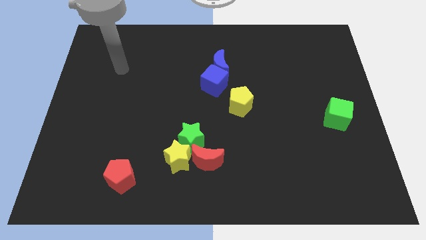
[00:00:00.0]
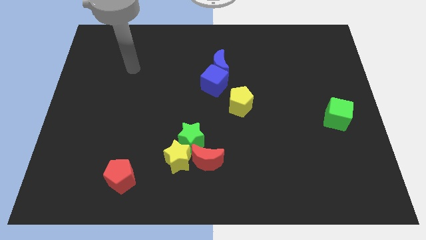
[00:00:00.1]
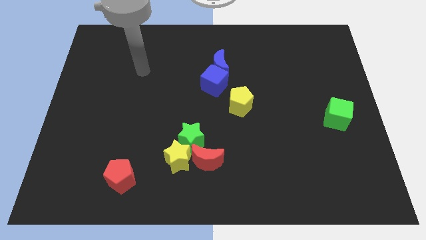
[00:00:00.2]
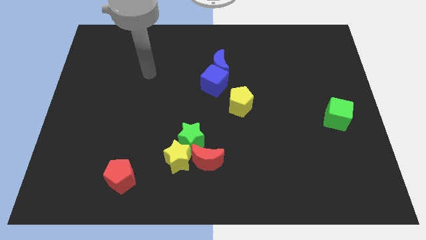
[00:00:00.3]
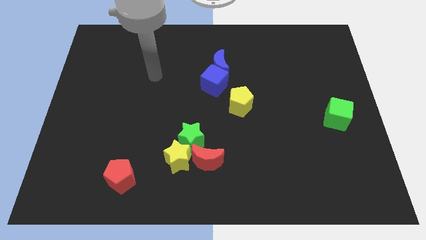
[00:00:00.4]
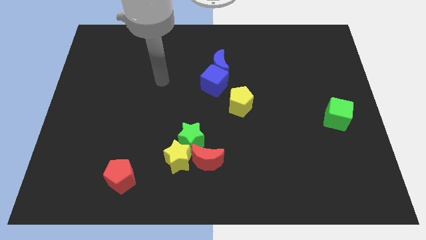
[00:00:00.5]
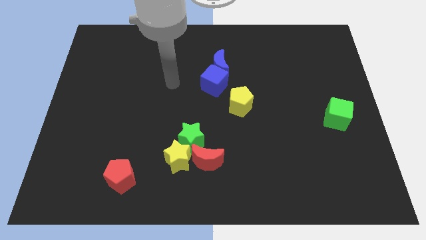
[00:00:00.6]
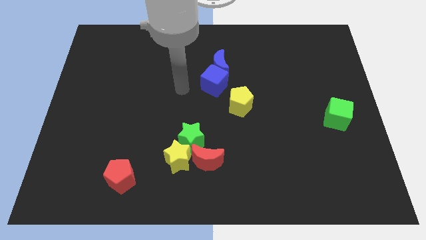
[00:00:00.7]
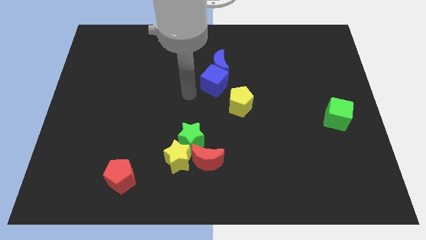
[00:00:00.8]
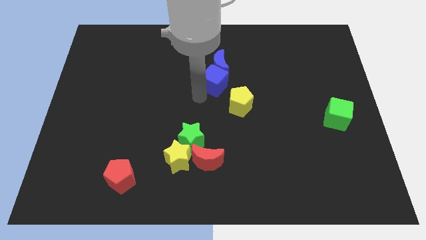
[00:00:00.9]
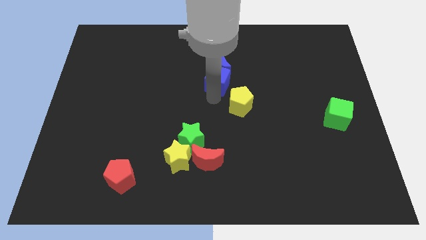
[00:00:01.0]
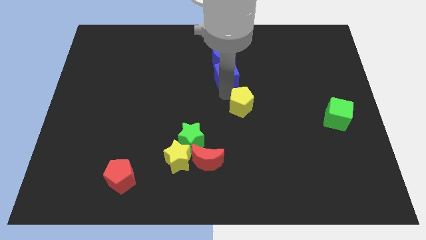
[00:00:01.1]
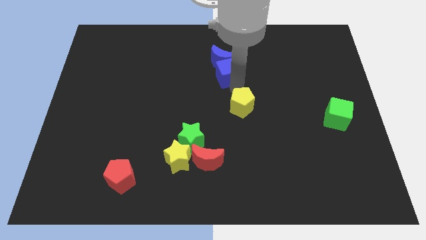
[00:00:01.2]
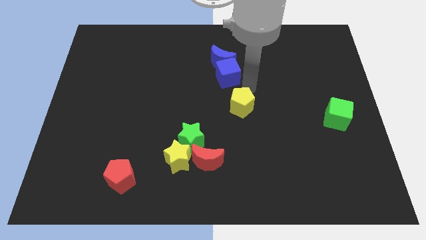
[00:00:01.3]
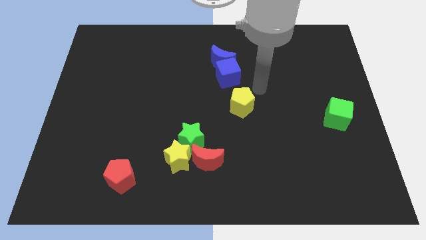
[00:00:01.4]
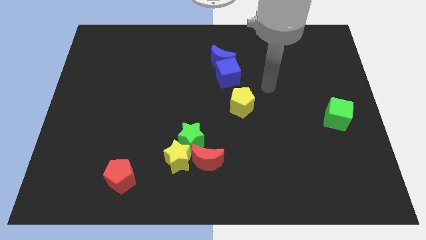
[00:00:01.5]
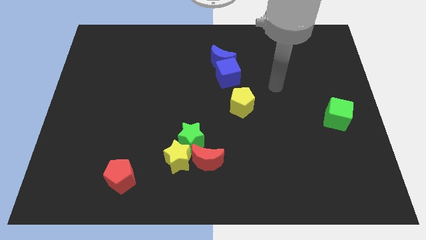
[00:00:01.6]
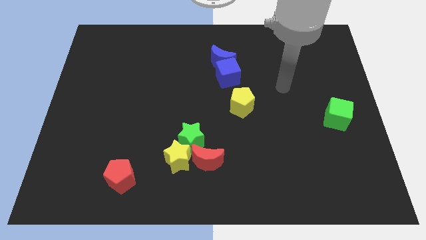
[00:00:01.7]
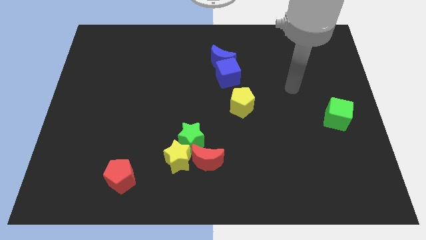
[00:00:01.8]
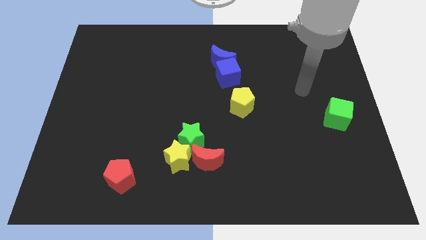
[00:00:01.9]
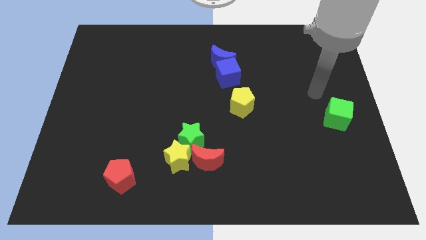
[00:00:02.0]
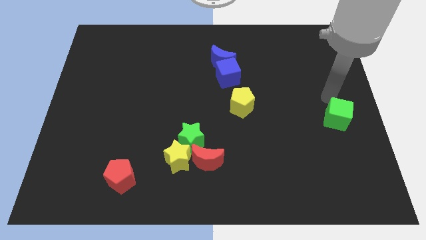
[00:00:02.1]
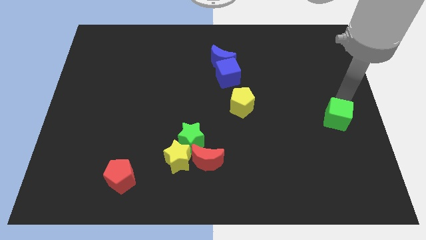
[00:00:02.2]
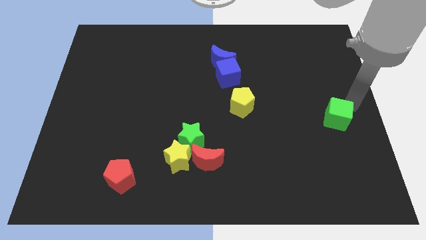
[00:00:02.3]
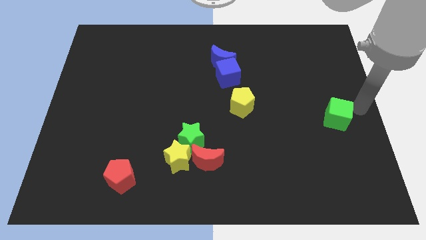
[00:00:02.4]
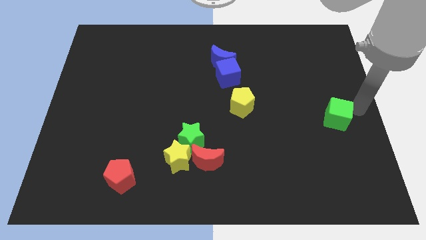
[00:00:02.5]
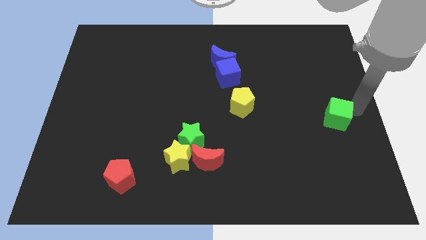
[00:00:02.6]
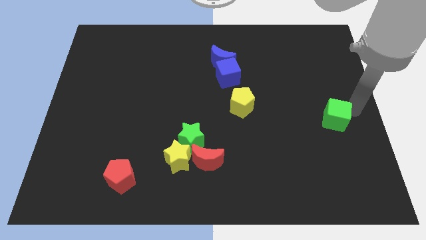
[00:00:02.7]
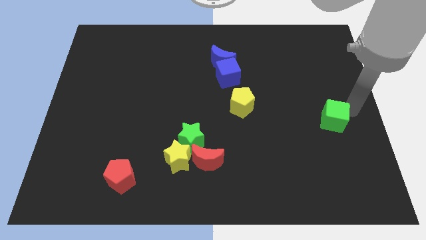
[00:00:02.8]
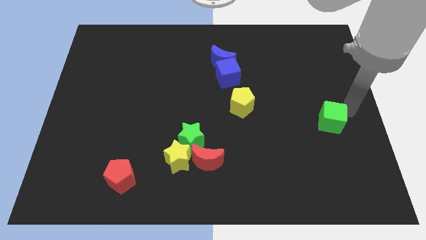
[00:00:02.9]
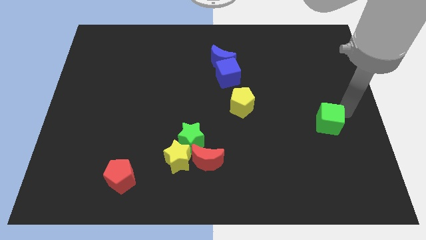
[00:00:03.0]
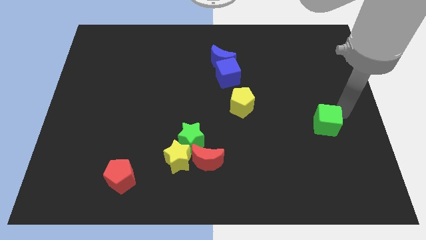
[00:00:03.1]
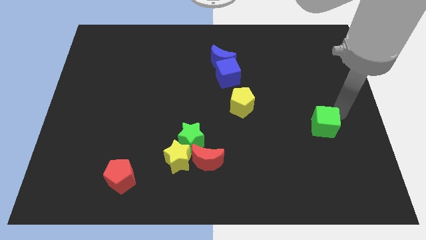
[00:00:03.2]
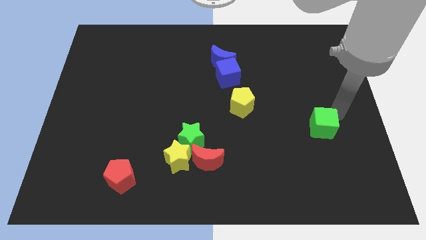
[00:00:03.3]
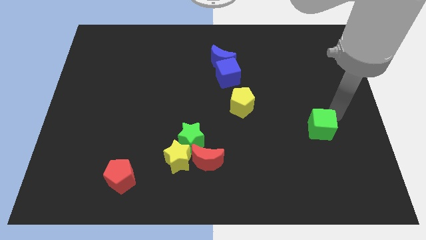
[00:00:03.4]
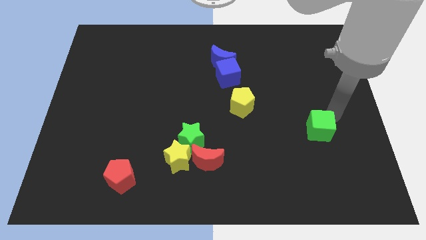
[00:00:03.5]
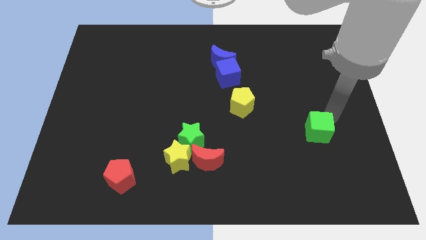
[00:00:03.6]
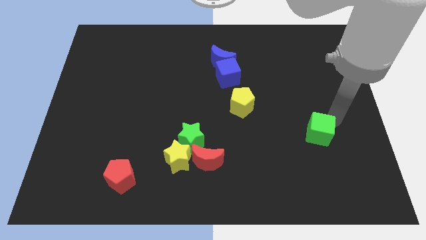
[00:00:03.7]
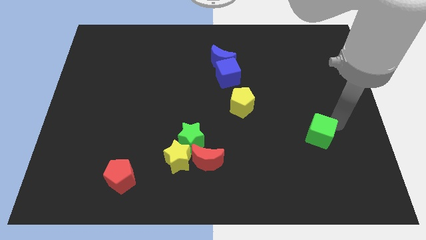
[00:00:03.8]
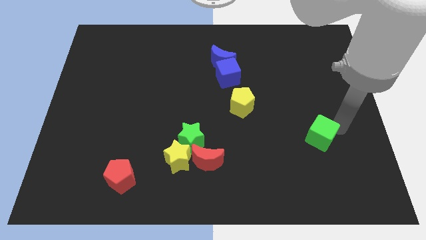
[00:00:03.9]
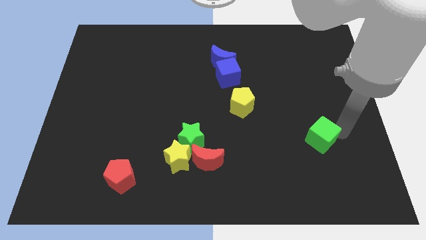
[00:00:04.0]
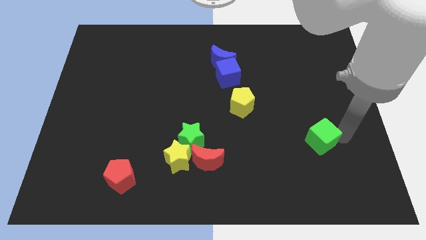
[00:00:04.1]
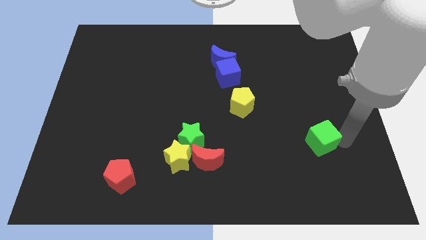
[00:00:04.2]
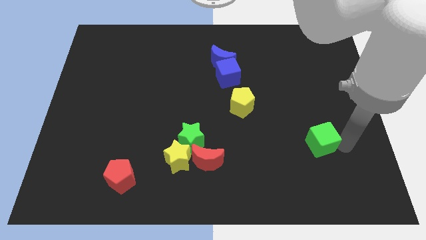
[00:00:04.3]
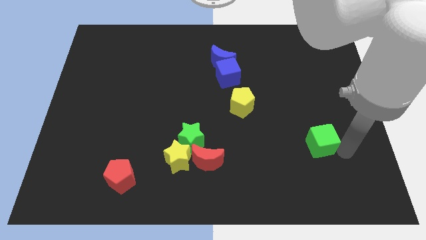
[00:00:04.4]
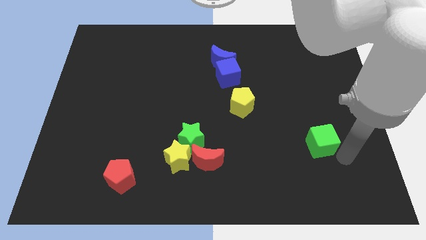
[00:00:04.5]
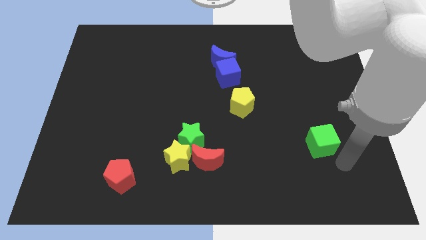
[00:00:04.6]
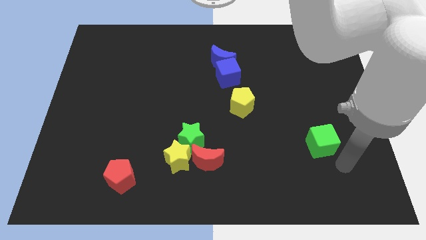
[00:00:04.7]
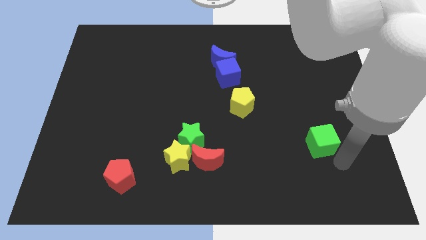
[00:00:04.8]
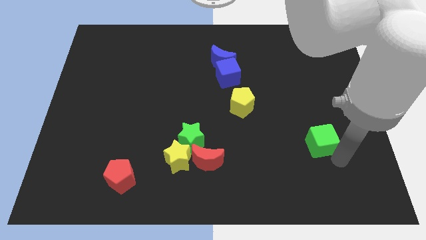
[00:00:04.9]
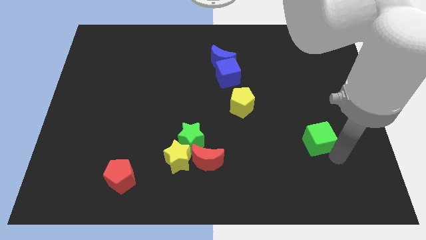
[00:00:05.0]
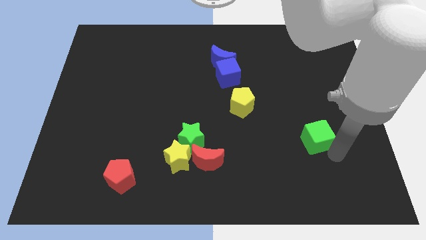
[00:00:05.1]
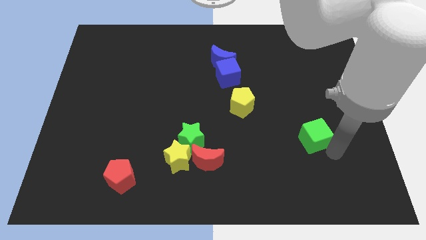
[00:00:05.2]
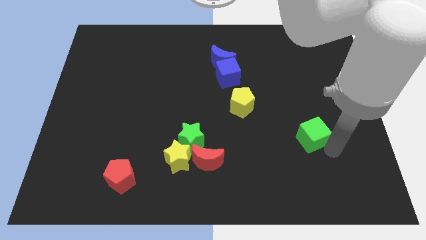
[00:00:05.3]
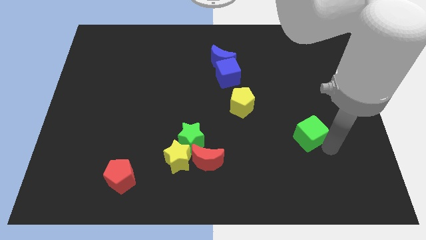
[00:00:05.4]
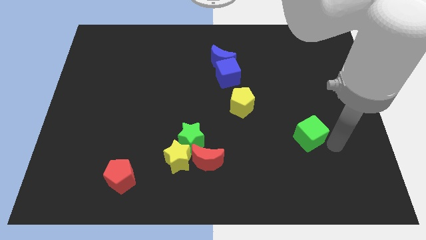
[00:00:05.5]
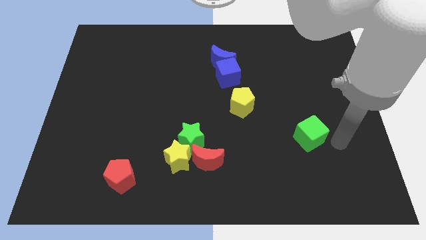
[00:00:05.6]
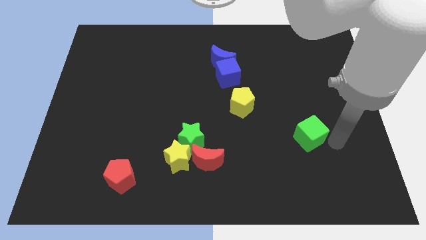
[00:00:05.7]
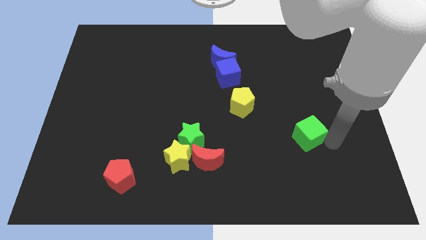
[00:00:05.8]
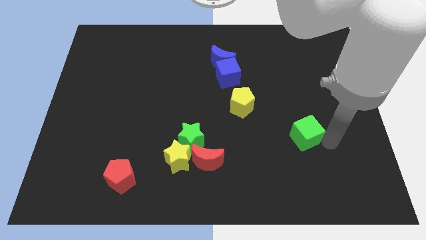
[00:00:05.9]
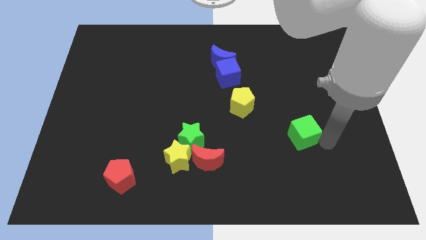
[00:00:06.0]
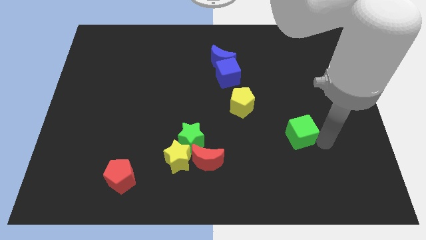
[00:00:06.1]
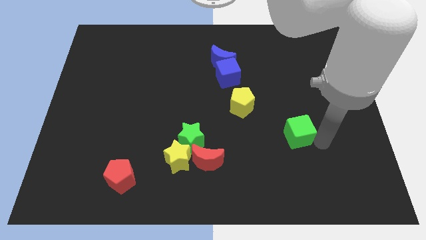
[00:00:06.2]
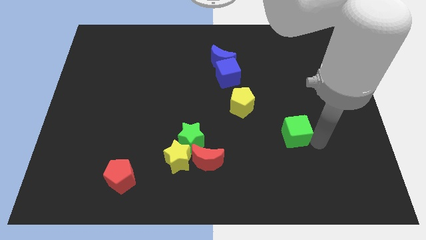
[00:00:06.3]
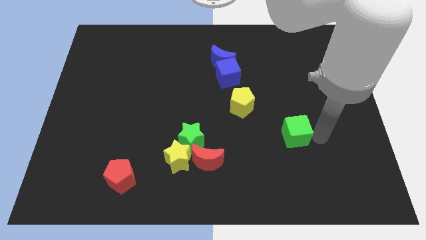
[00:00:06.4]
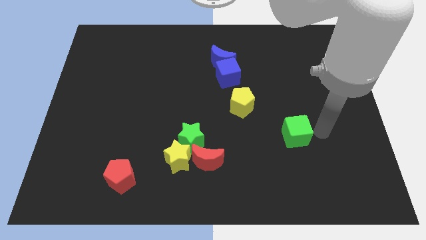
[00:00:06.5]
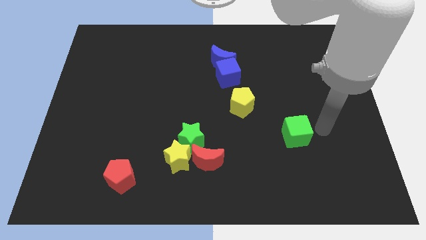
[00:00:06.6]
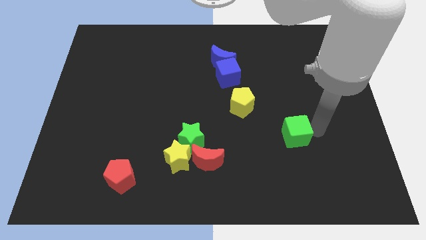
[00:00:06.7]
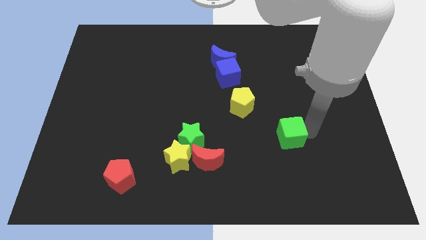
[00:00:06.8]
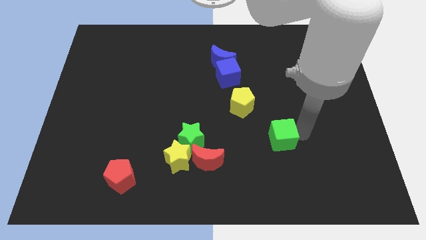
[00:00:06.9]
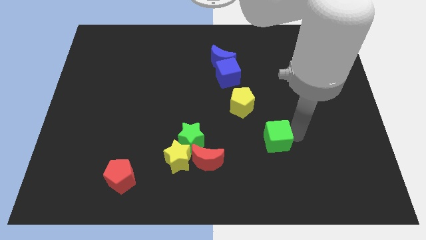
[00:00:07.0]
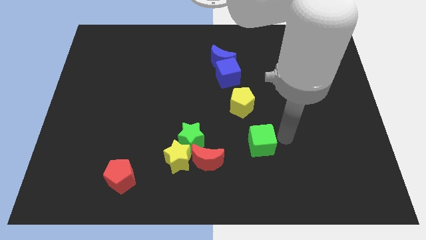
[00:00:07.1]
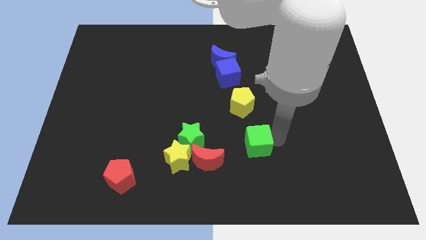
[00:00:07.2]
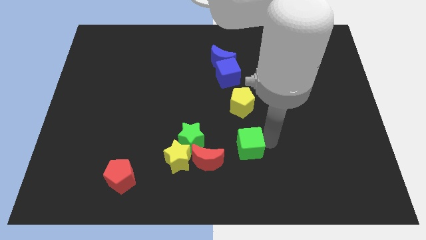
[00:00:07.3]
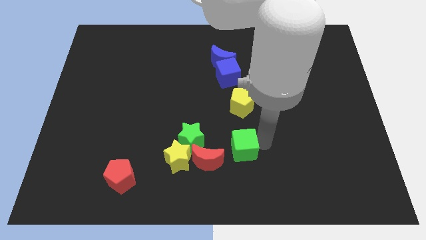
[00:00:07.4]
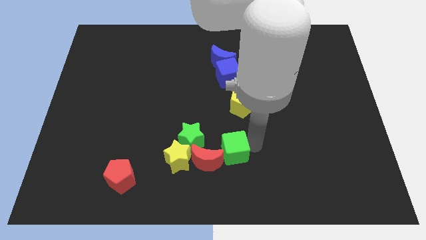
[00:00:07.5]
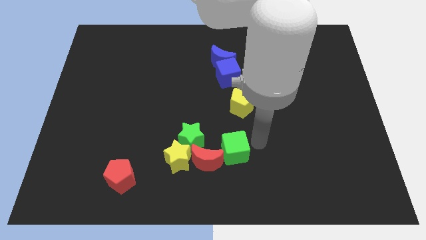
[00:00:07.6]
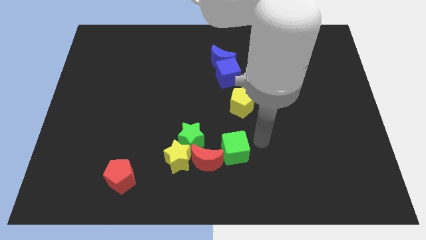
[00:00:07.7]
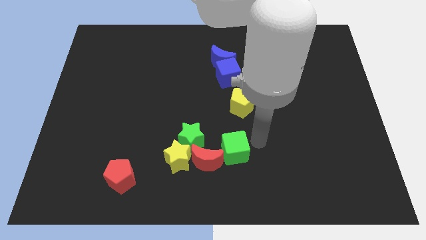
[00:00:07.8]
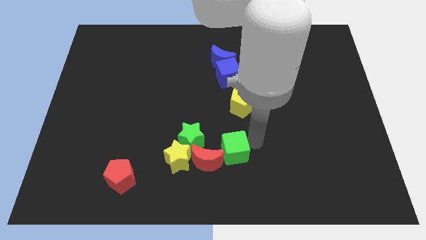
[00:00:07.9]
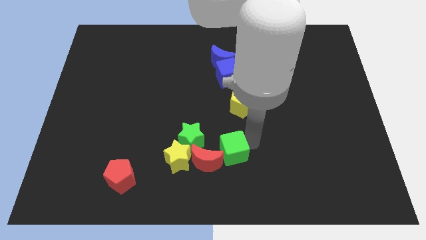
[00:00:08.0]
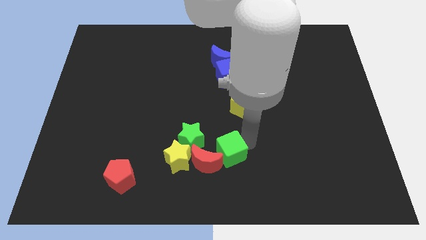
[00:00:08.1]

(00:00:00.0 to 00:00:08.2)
put the green cube close to the red moon
